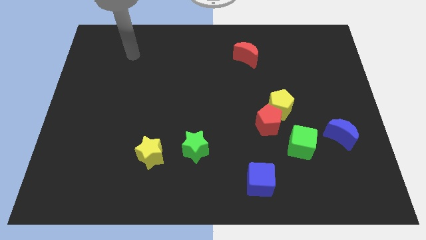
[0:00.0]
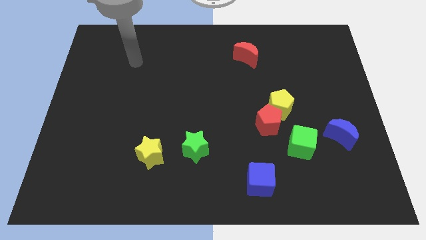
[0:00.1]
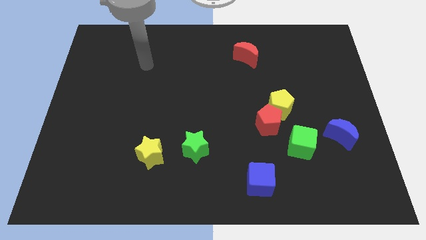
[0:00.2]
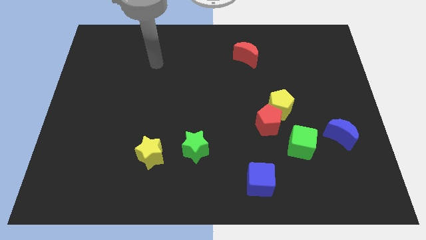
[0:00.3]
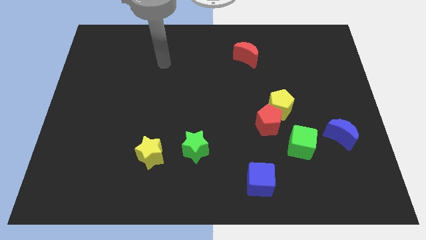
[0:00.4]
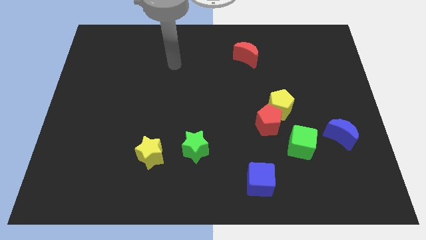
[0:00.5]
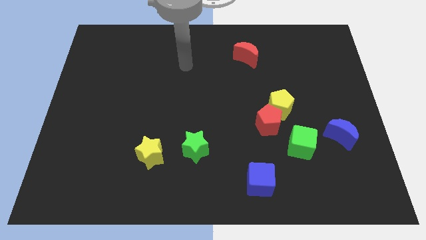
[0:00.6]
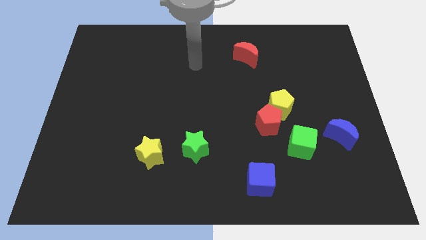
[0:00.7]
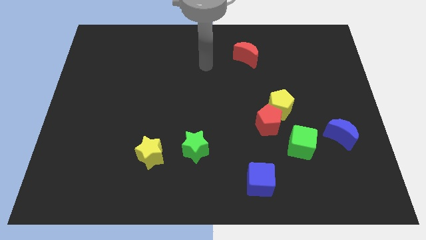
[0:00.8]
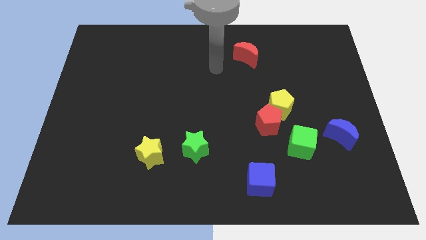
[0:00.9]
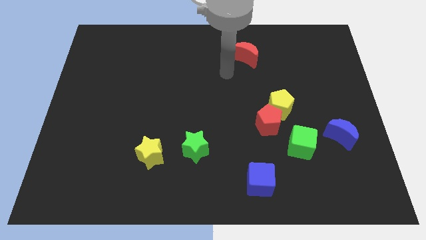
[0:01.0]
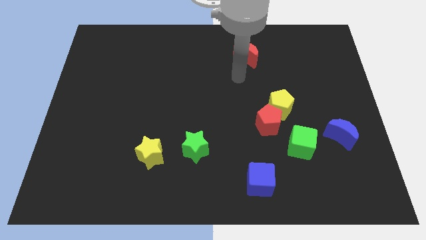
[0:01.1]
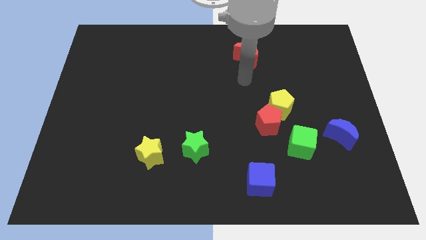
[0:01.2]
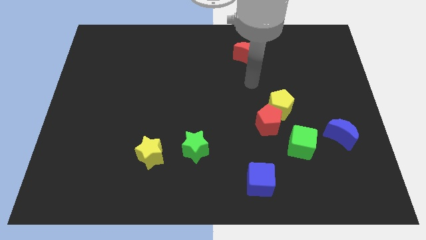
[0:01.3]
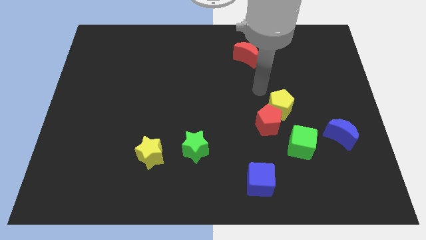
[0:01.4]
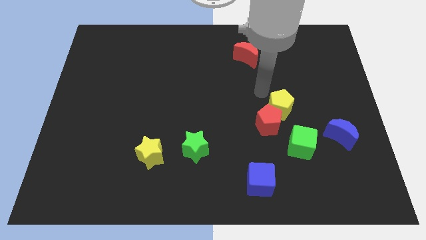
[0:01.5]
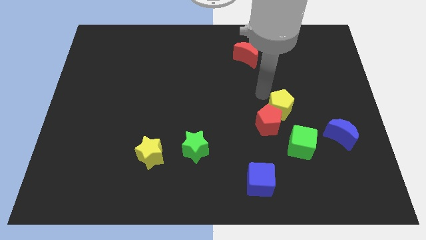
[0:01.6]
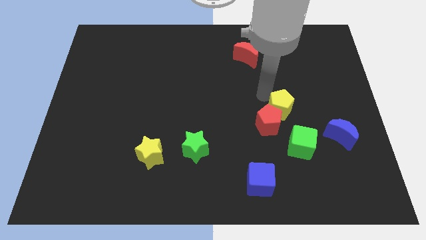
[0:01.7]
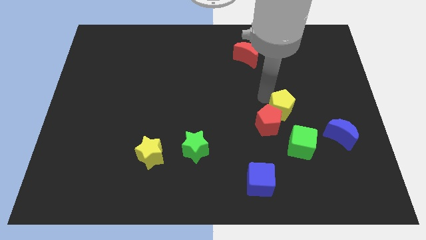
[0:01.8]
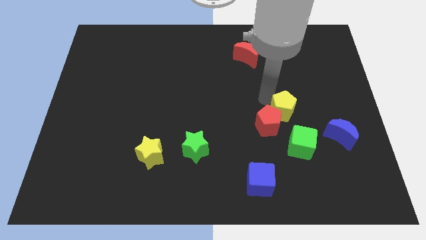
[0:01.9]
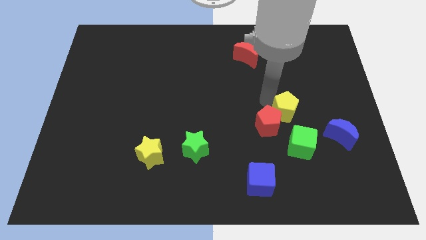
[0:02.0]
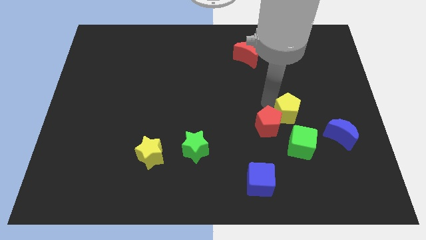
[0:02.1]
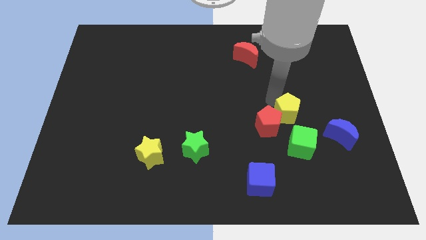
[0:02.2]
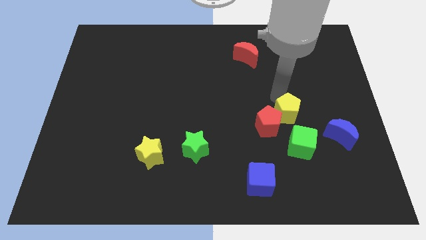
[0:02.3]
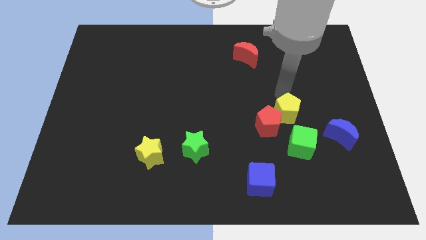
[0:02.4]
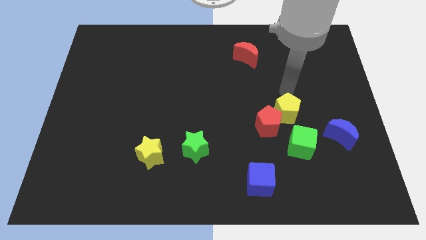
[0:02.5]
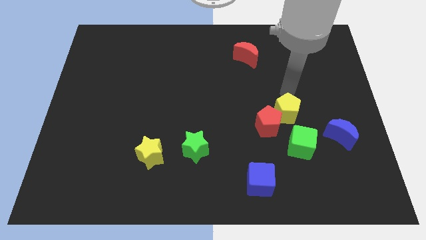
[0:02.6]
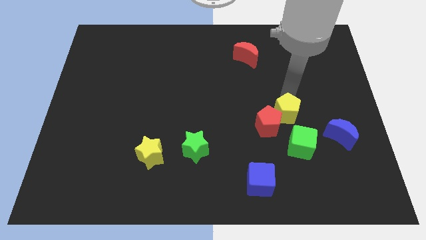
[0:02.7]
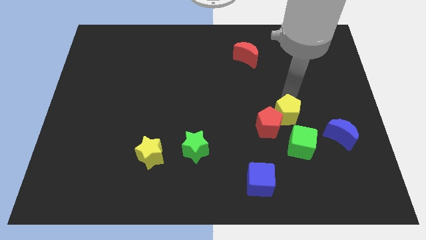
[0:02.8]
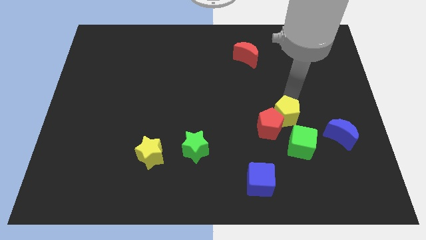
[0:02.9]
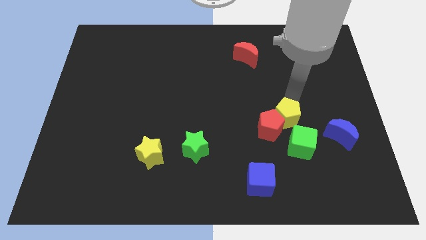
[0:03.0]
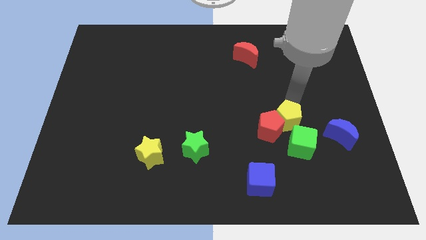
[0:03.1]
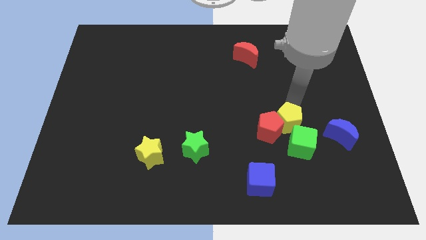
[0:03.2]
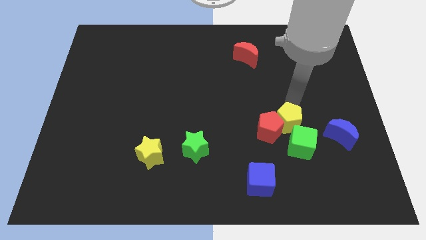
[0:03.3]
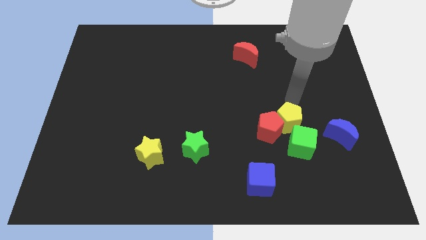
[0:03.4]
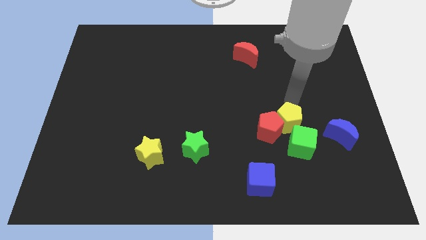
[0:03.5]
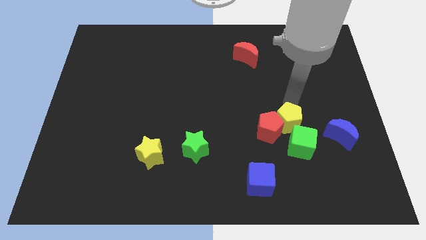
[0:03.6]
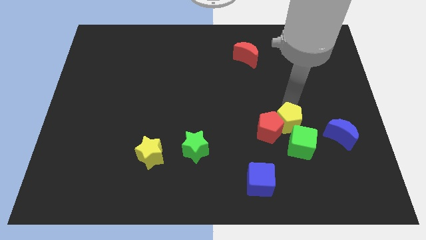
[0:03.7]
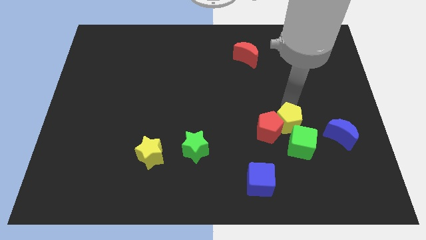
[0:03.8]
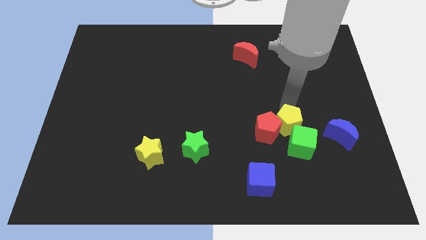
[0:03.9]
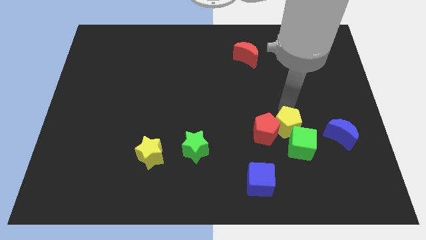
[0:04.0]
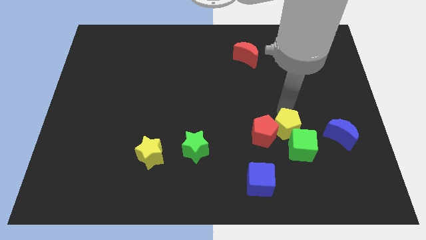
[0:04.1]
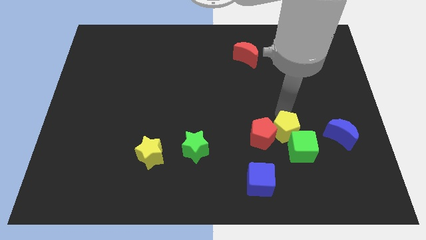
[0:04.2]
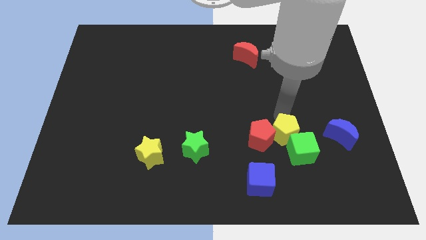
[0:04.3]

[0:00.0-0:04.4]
slightly slide the yellow pentagon downwards

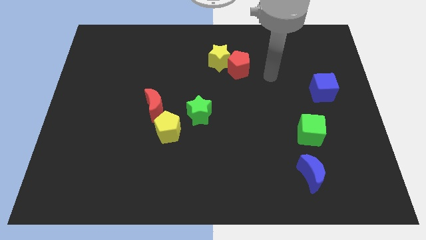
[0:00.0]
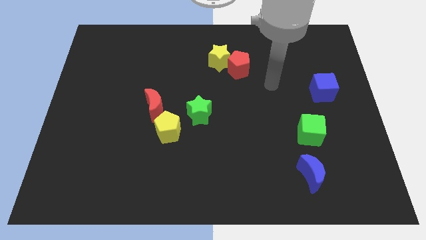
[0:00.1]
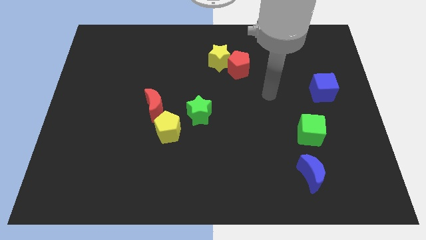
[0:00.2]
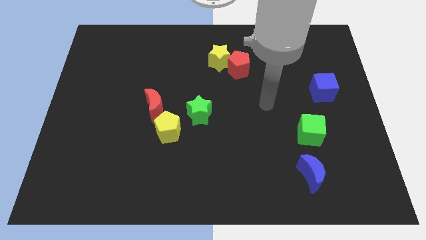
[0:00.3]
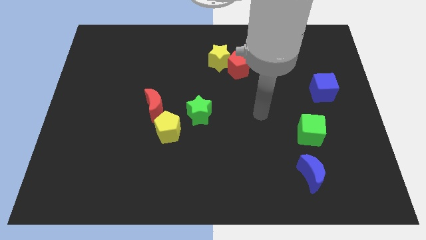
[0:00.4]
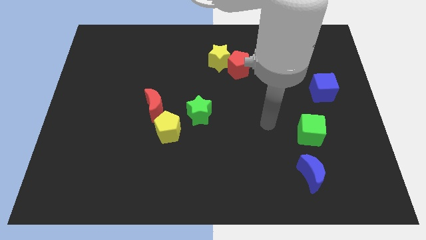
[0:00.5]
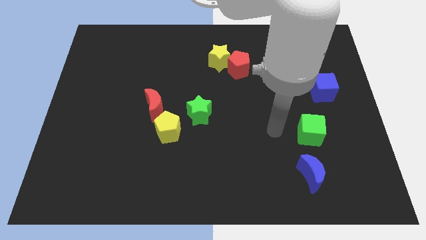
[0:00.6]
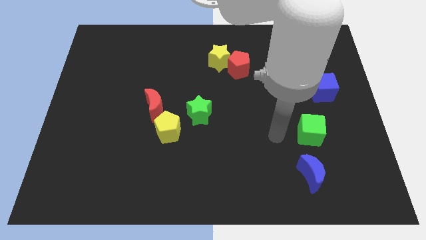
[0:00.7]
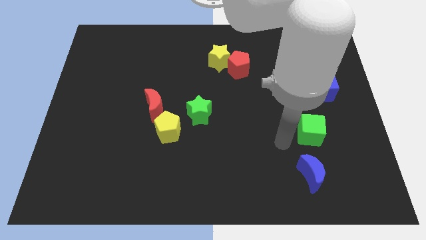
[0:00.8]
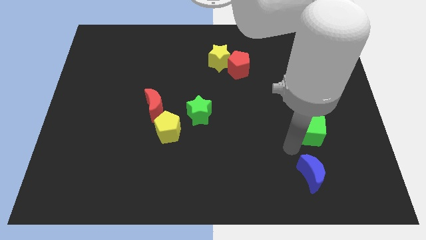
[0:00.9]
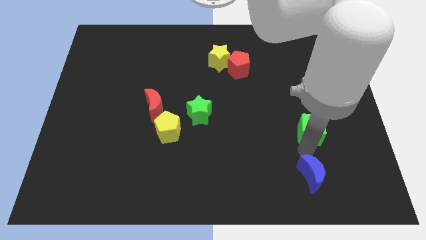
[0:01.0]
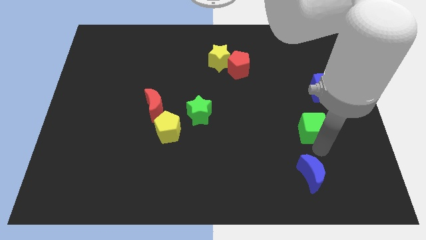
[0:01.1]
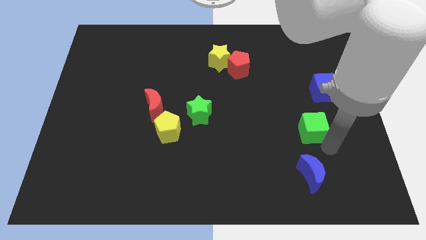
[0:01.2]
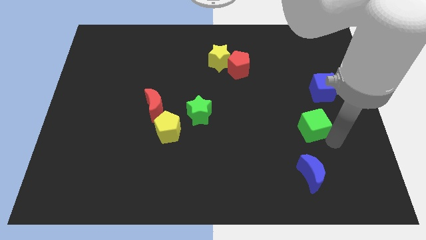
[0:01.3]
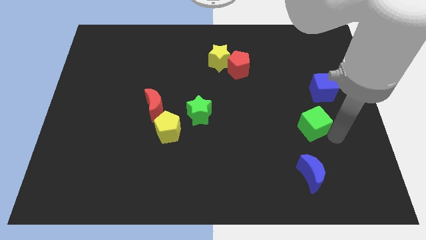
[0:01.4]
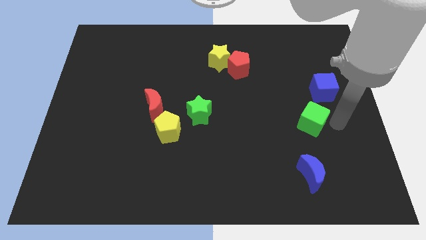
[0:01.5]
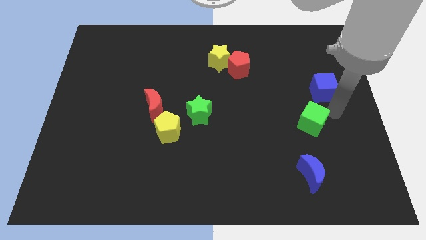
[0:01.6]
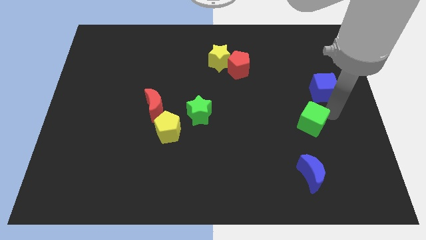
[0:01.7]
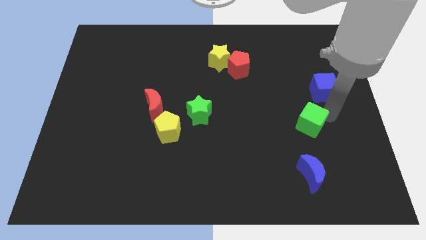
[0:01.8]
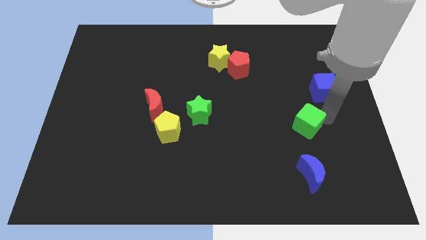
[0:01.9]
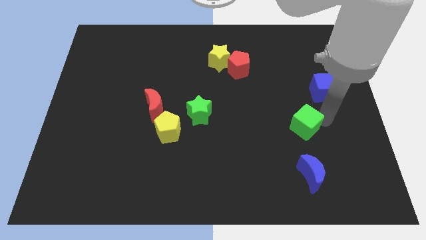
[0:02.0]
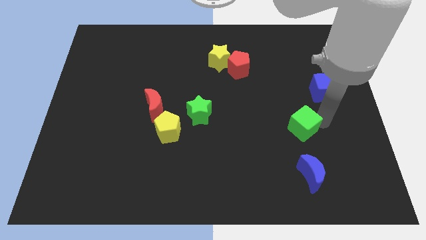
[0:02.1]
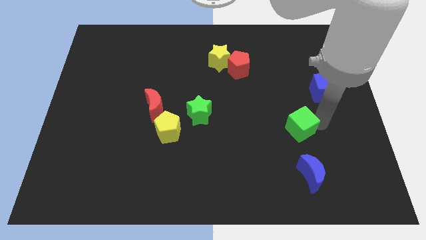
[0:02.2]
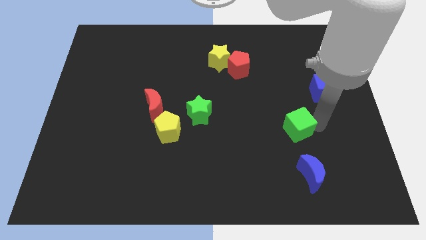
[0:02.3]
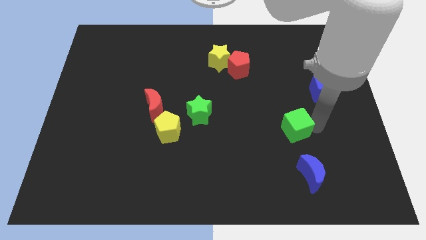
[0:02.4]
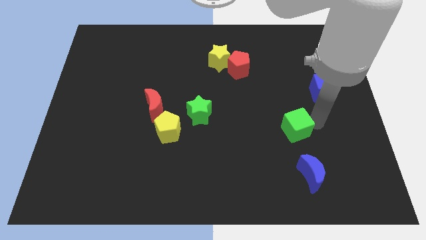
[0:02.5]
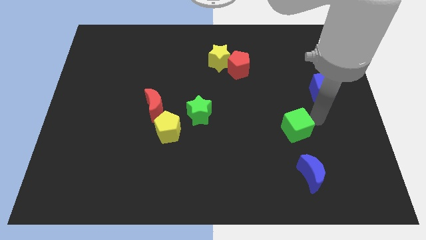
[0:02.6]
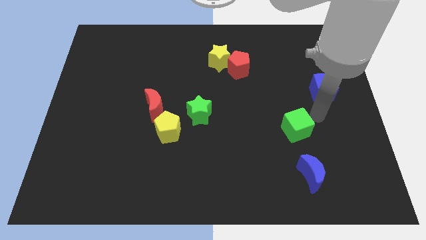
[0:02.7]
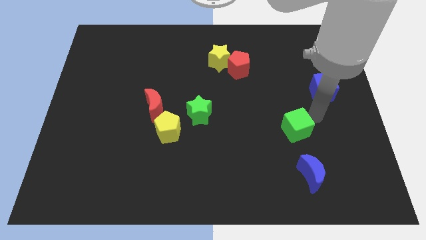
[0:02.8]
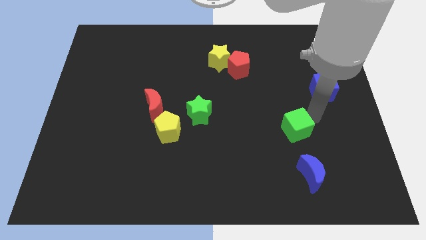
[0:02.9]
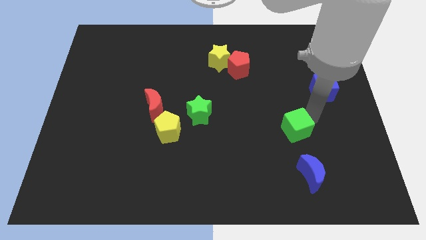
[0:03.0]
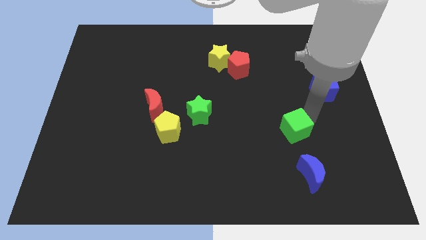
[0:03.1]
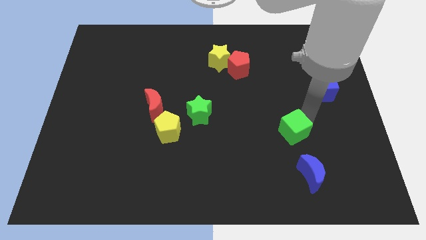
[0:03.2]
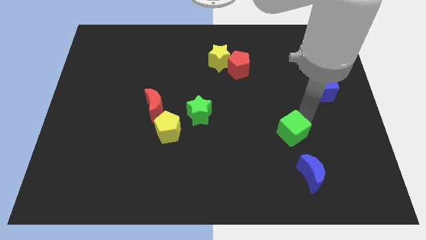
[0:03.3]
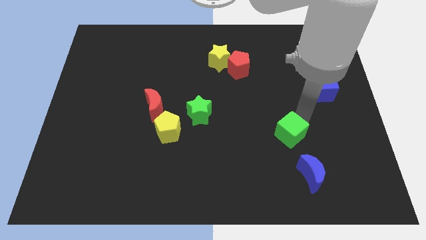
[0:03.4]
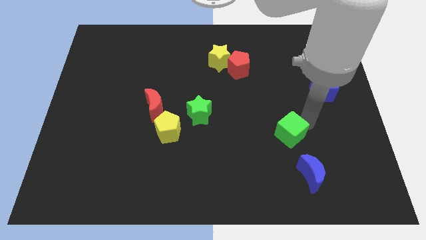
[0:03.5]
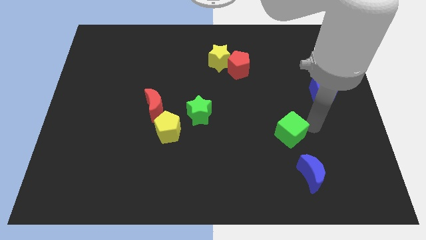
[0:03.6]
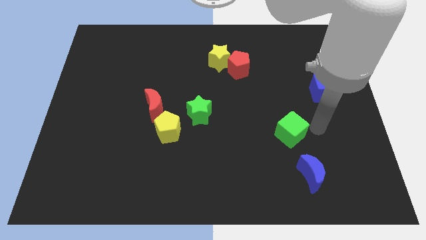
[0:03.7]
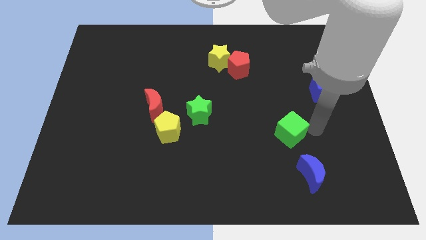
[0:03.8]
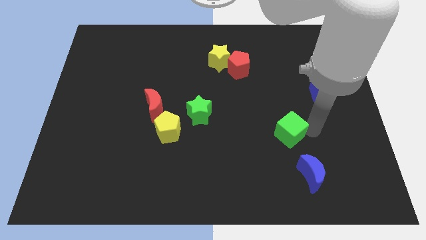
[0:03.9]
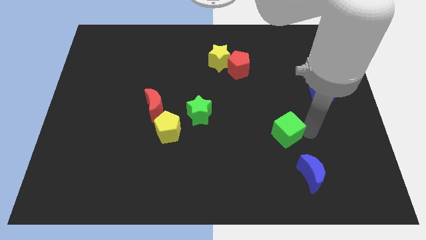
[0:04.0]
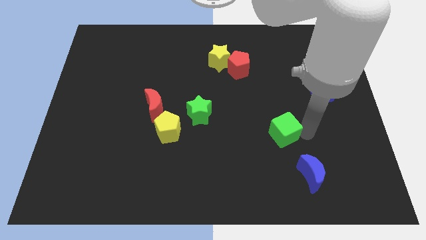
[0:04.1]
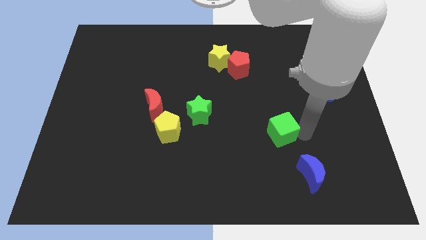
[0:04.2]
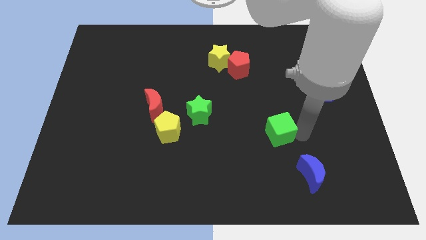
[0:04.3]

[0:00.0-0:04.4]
slightly slide the green cube left
